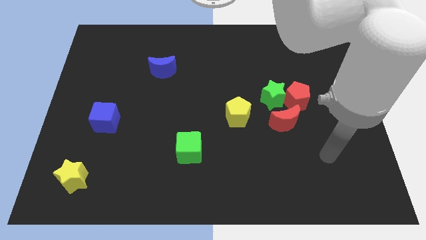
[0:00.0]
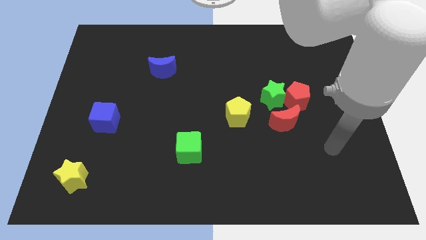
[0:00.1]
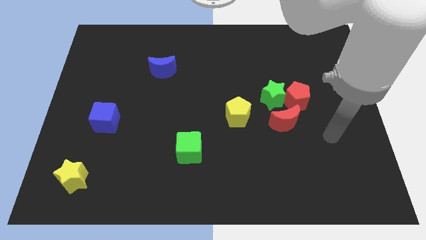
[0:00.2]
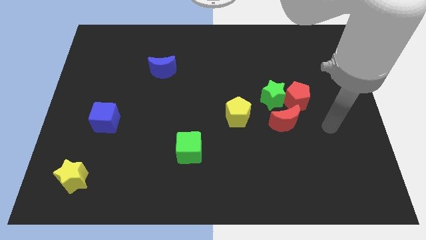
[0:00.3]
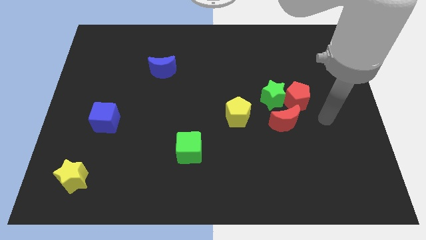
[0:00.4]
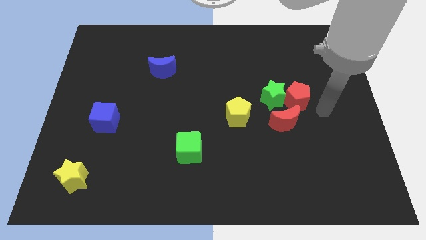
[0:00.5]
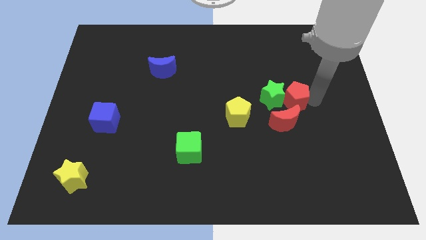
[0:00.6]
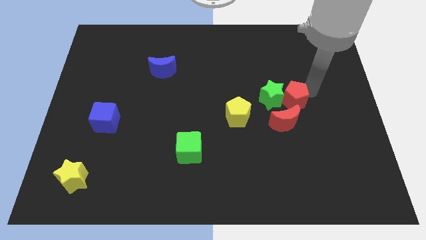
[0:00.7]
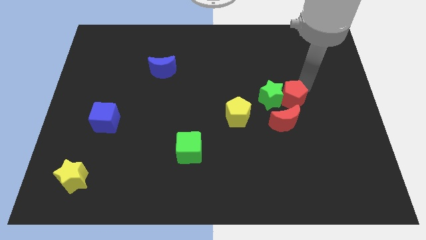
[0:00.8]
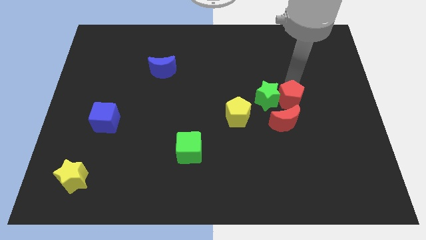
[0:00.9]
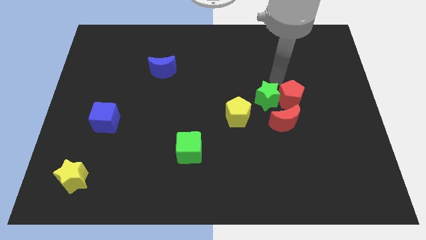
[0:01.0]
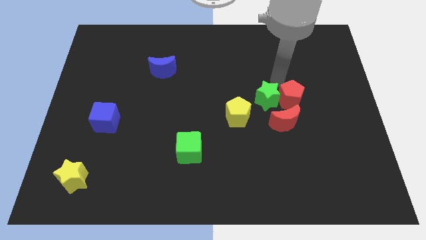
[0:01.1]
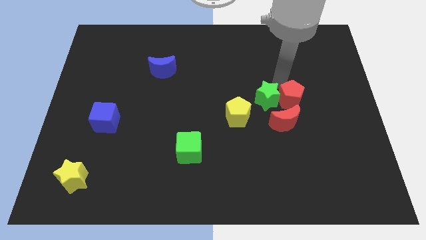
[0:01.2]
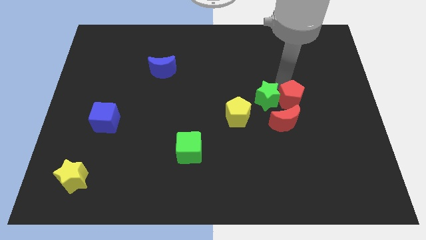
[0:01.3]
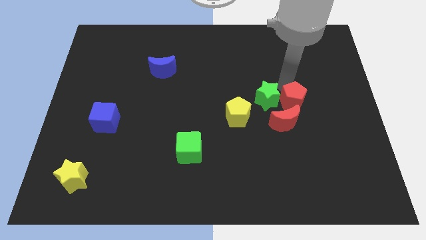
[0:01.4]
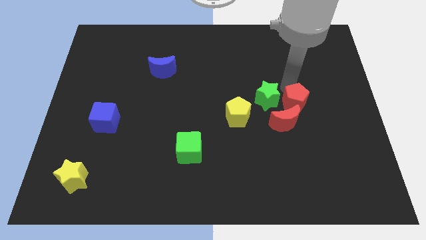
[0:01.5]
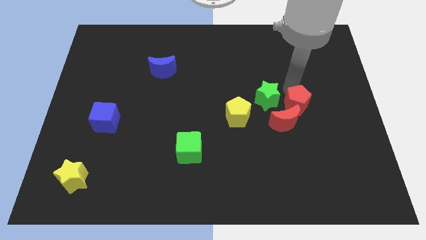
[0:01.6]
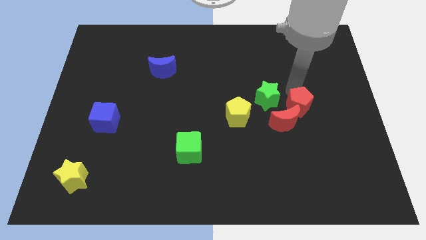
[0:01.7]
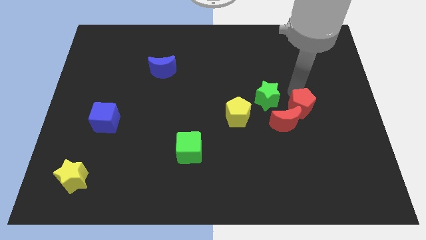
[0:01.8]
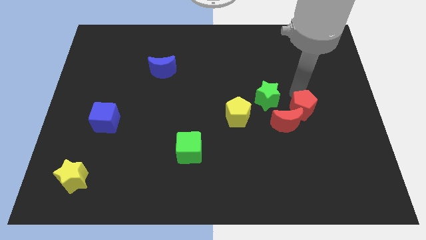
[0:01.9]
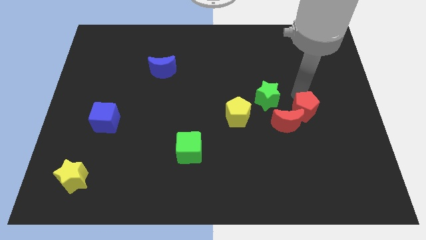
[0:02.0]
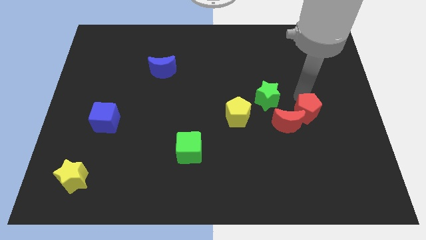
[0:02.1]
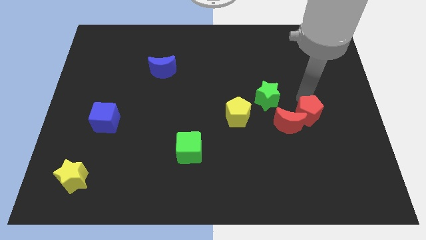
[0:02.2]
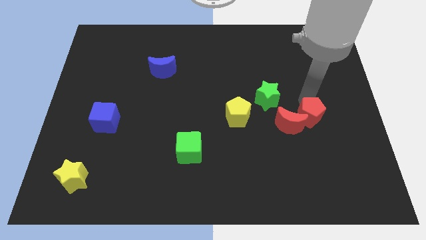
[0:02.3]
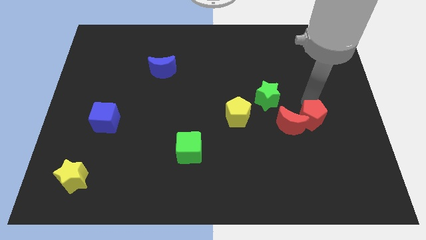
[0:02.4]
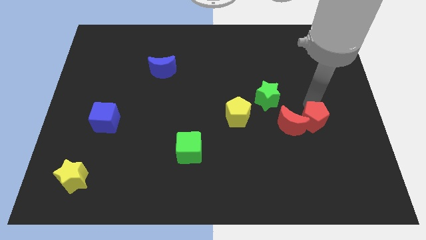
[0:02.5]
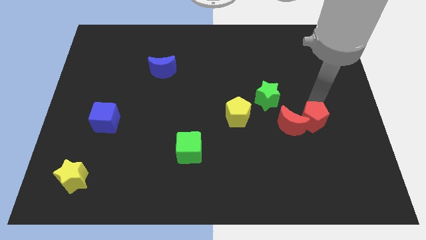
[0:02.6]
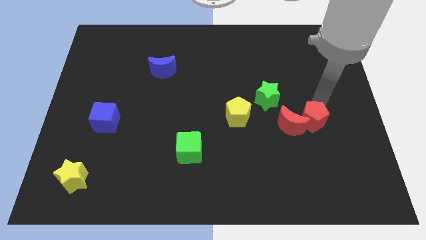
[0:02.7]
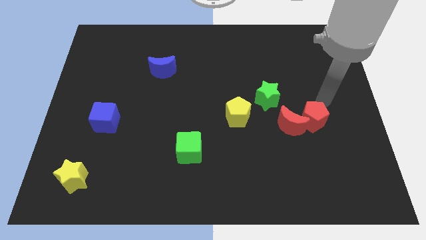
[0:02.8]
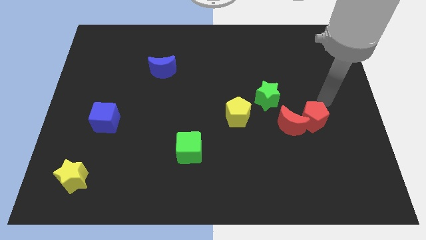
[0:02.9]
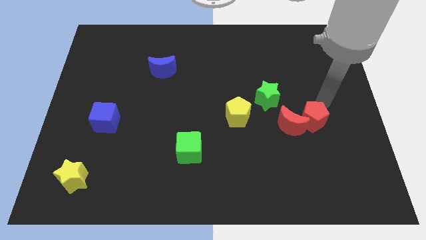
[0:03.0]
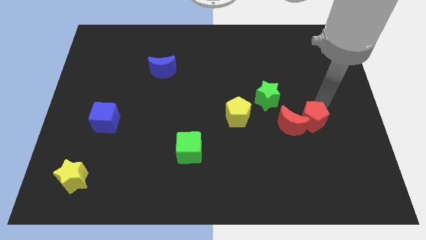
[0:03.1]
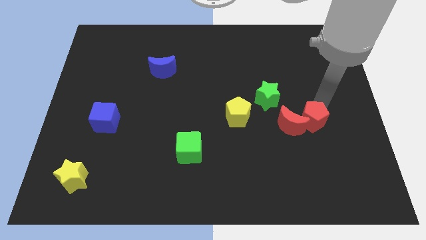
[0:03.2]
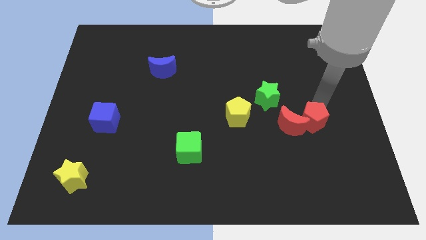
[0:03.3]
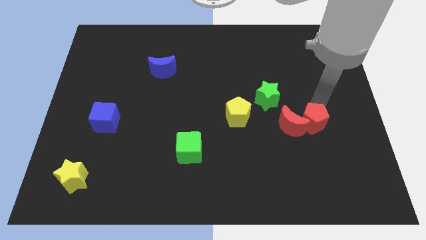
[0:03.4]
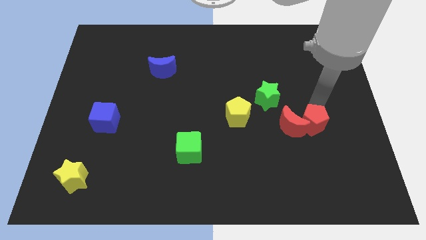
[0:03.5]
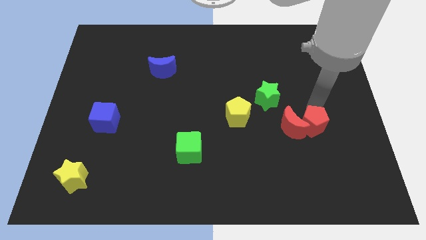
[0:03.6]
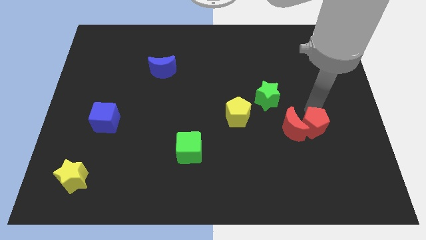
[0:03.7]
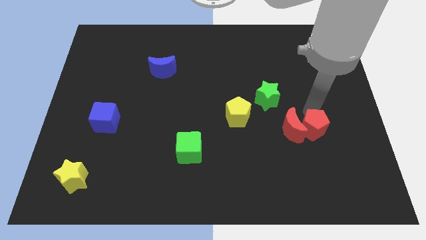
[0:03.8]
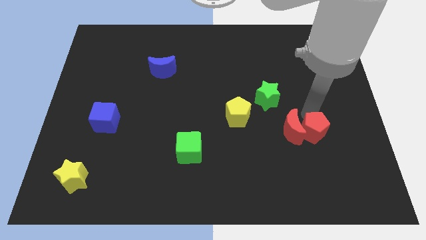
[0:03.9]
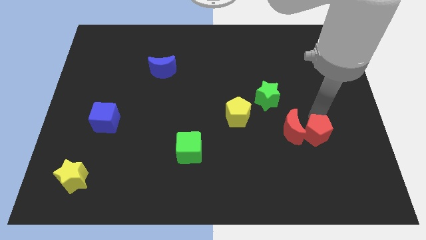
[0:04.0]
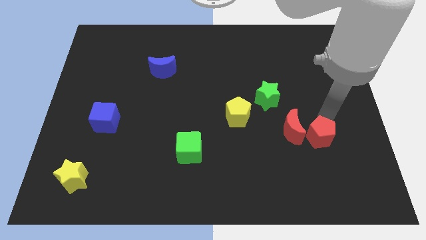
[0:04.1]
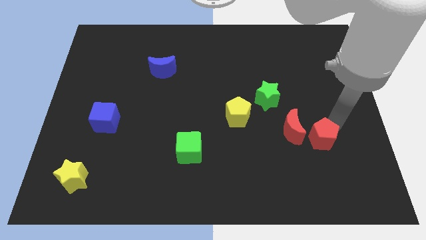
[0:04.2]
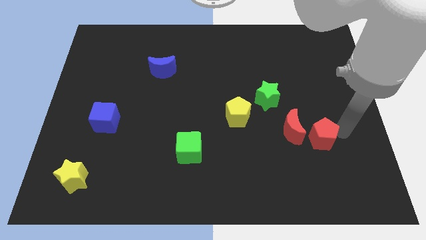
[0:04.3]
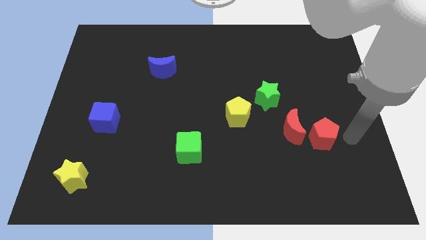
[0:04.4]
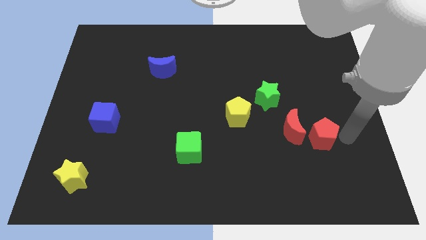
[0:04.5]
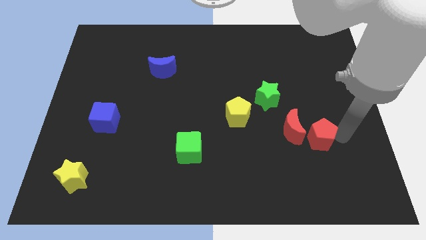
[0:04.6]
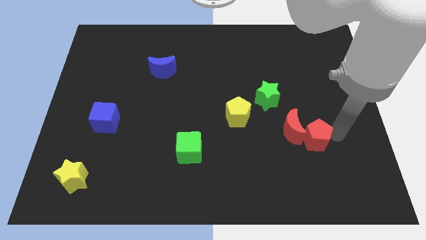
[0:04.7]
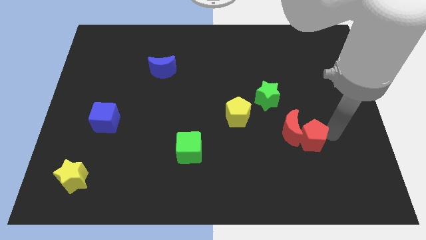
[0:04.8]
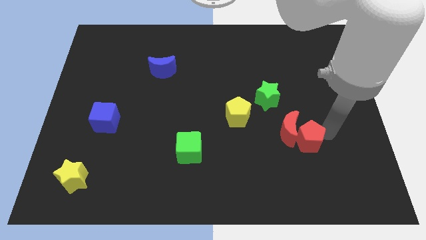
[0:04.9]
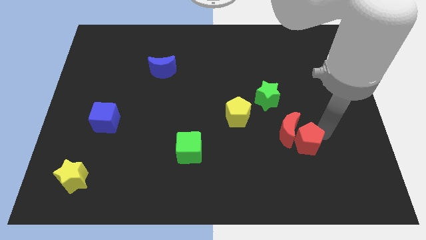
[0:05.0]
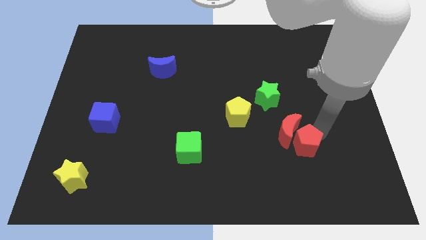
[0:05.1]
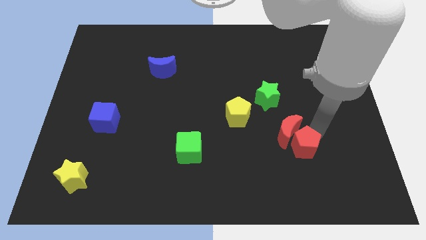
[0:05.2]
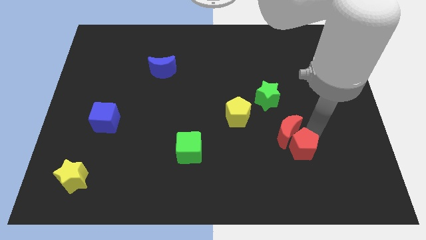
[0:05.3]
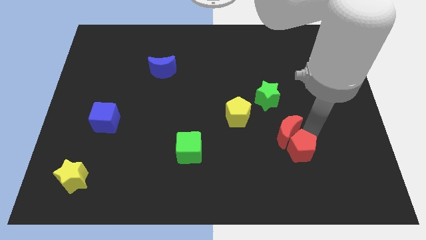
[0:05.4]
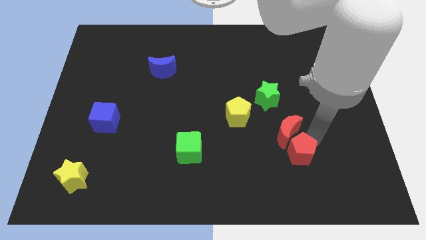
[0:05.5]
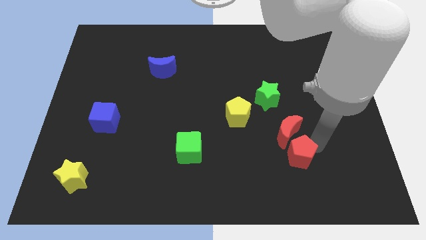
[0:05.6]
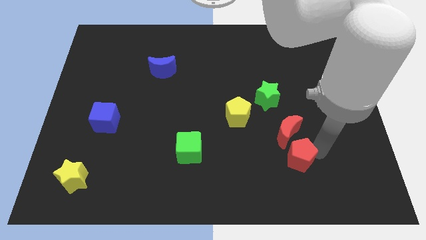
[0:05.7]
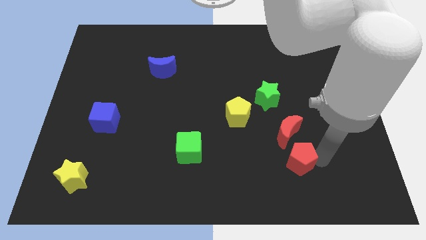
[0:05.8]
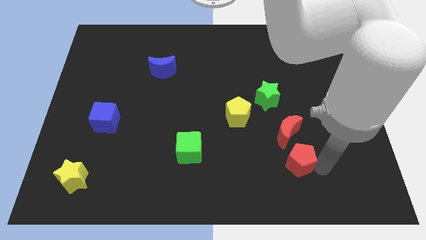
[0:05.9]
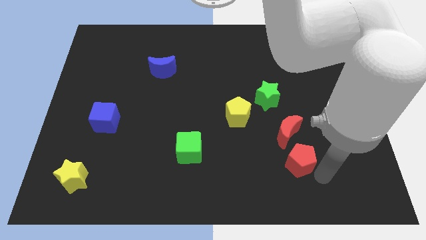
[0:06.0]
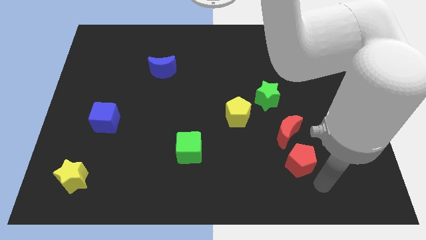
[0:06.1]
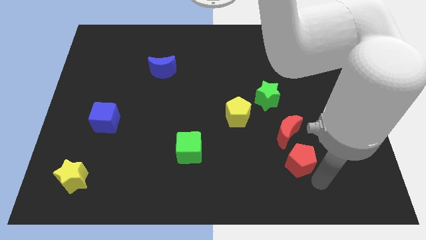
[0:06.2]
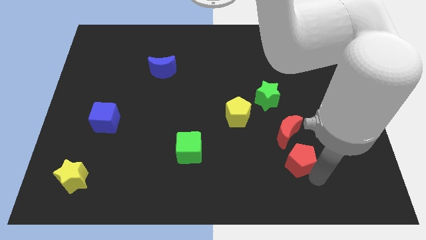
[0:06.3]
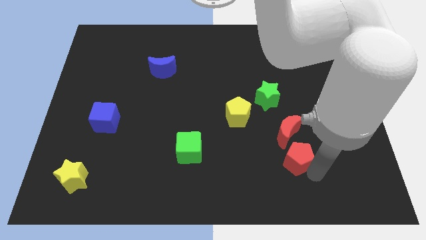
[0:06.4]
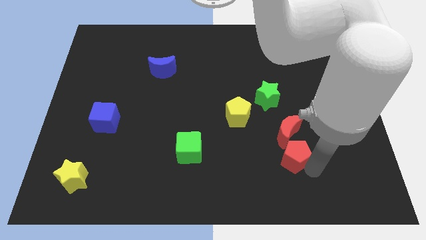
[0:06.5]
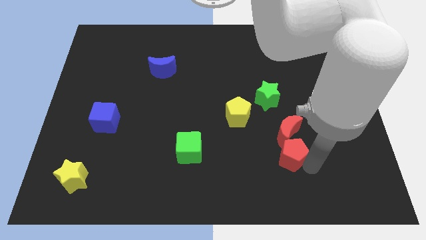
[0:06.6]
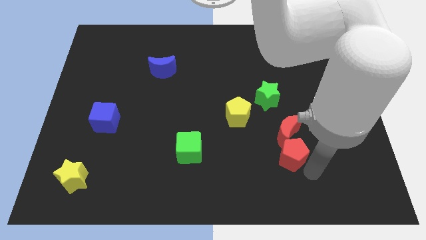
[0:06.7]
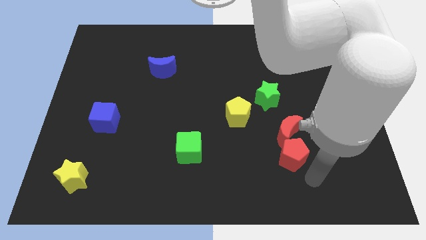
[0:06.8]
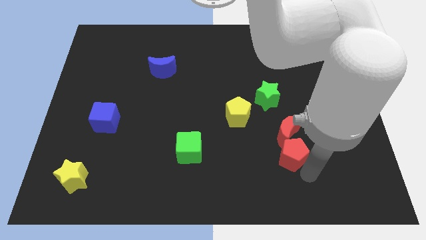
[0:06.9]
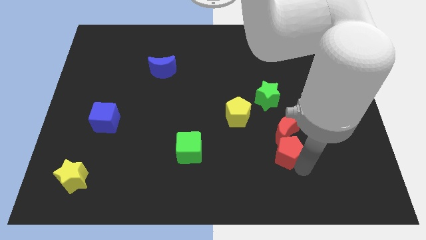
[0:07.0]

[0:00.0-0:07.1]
push the red pentagon below the green star

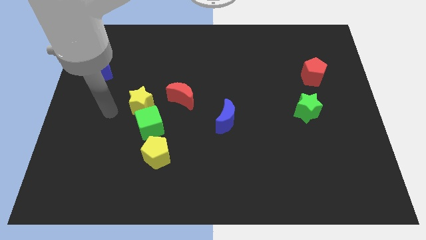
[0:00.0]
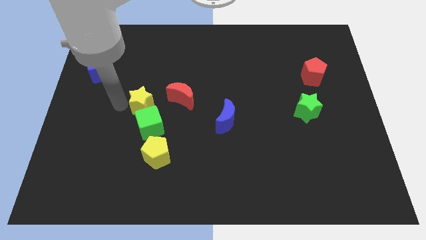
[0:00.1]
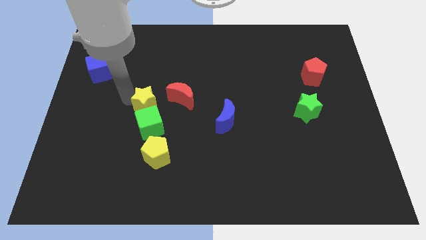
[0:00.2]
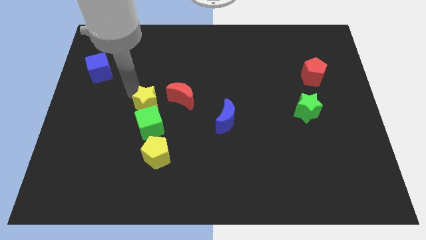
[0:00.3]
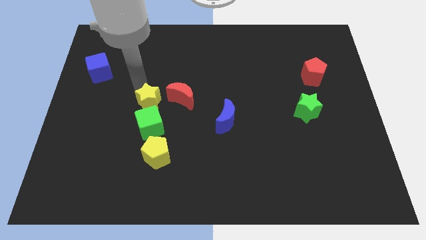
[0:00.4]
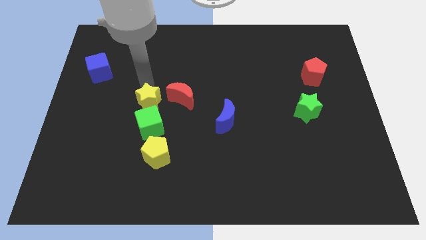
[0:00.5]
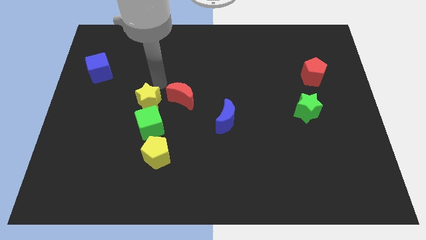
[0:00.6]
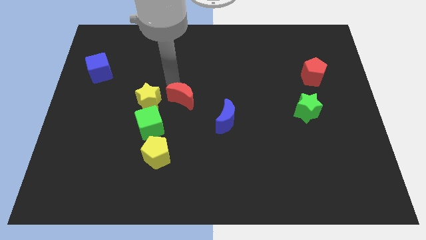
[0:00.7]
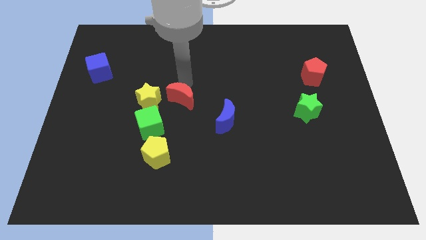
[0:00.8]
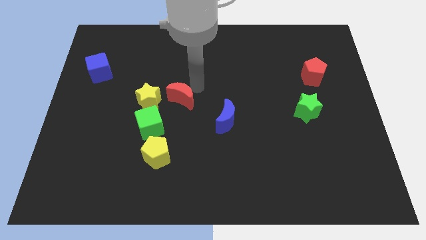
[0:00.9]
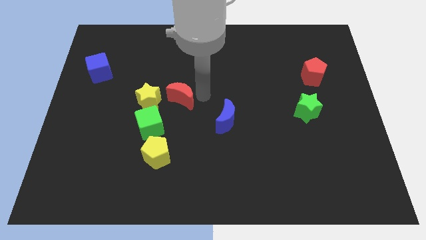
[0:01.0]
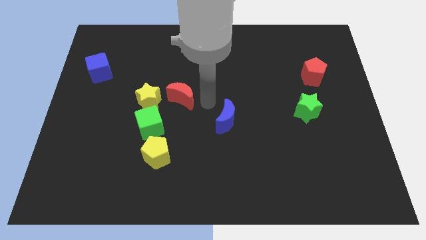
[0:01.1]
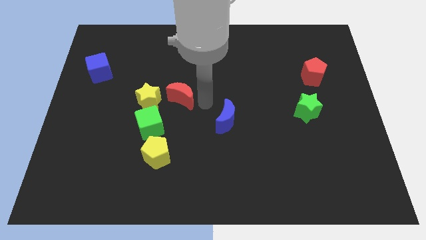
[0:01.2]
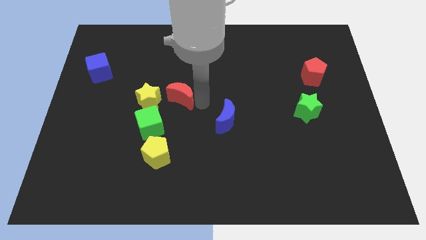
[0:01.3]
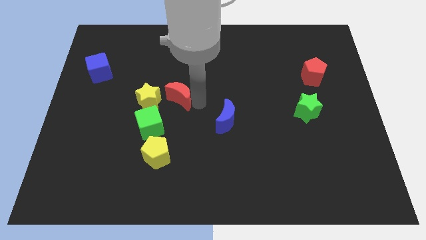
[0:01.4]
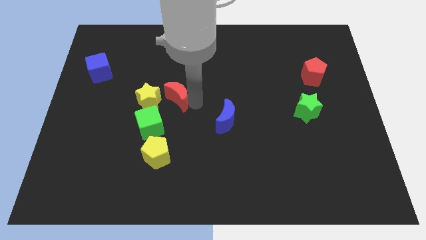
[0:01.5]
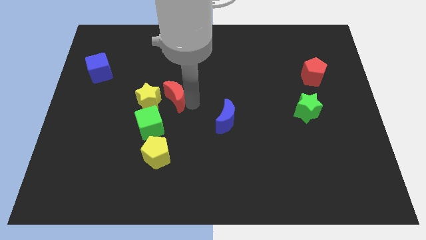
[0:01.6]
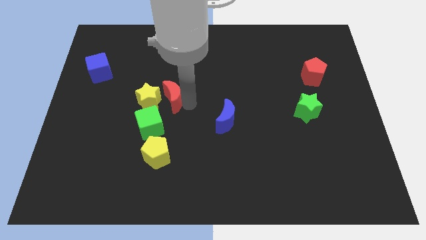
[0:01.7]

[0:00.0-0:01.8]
move the red moon to the top of the green cube
